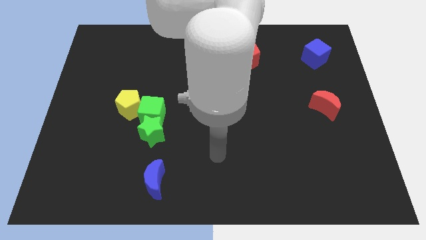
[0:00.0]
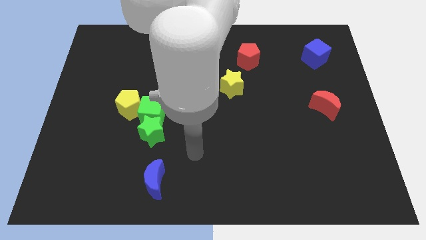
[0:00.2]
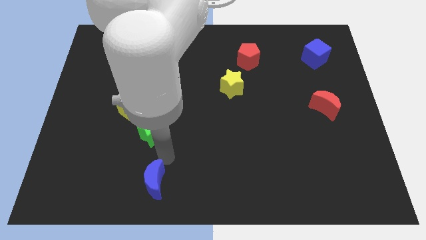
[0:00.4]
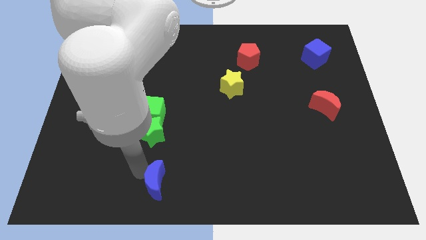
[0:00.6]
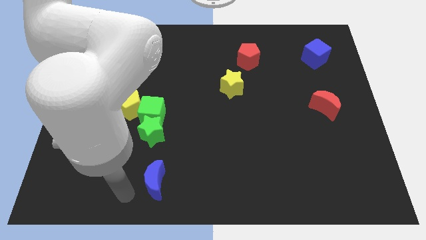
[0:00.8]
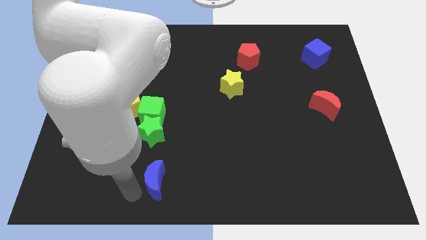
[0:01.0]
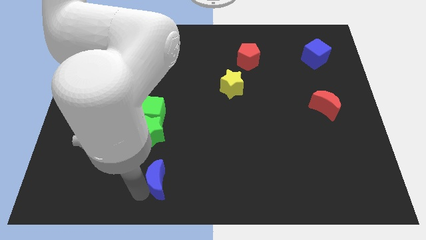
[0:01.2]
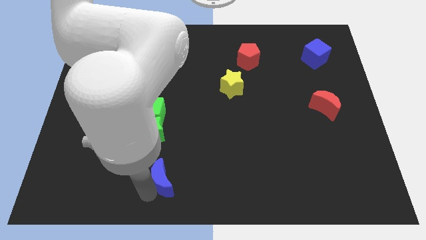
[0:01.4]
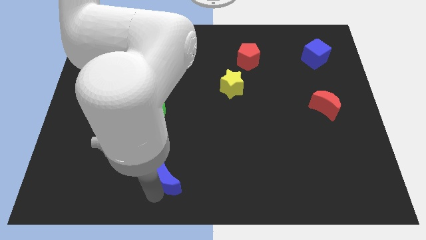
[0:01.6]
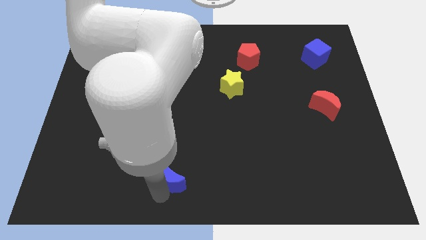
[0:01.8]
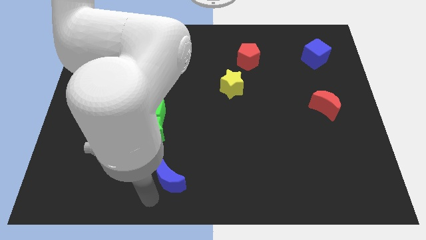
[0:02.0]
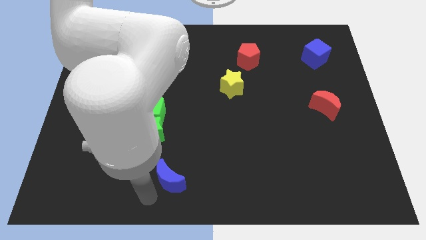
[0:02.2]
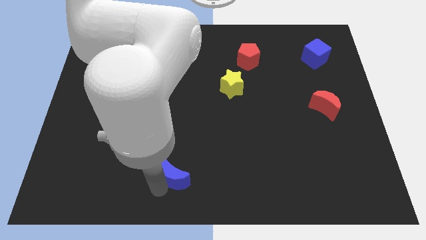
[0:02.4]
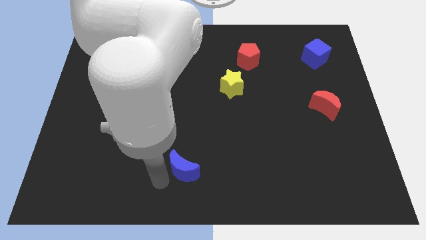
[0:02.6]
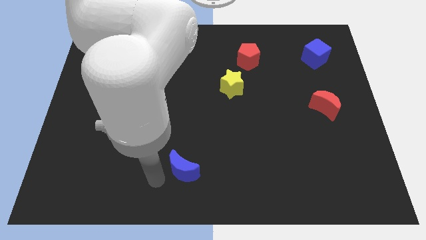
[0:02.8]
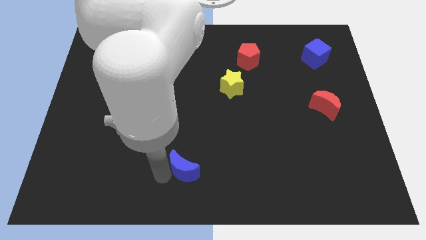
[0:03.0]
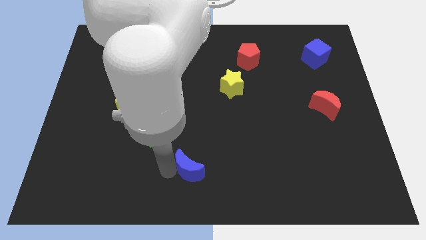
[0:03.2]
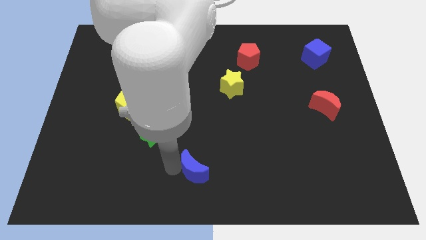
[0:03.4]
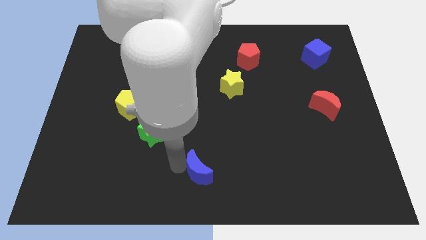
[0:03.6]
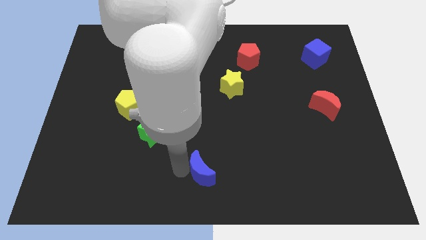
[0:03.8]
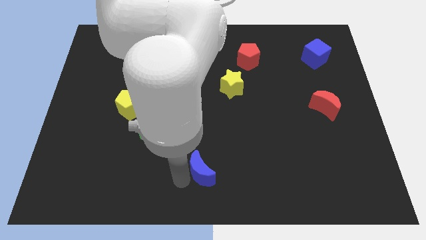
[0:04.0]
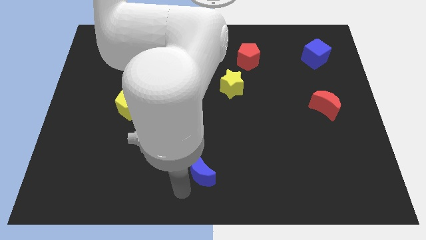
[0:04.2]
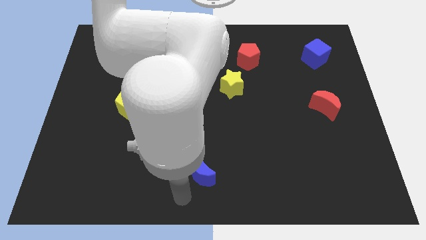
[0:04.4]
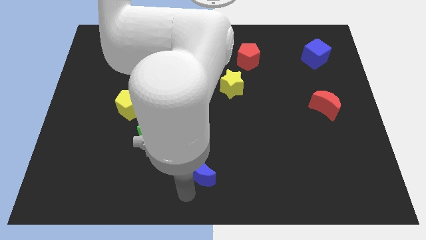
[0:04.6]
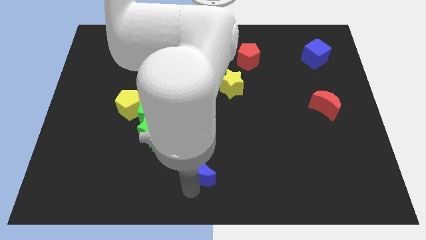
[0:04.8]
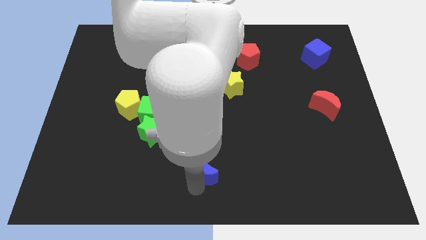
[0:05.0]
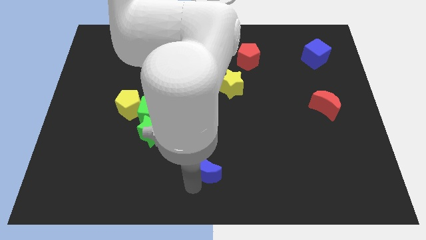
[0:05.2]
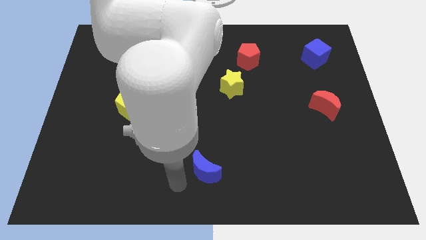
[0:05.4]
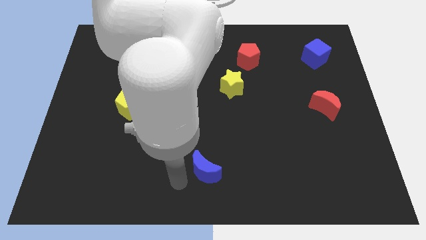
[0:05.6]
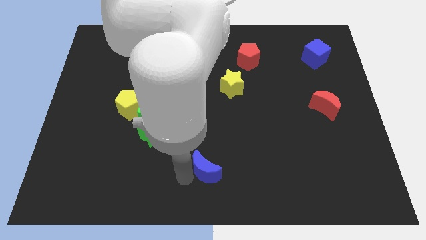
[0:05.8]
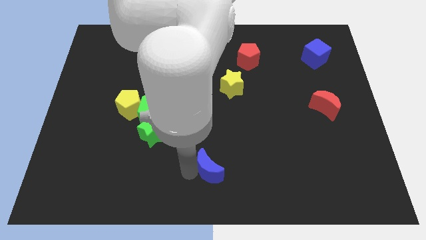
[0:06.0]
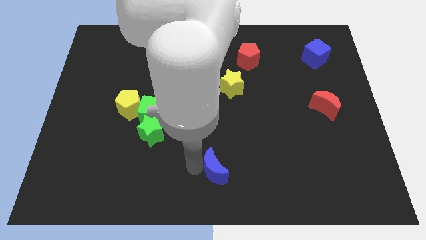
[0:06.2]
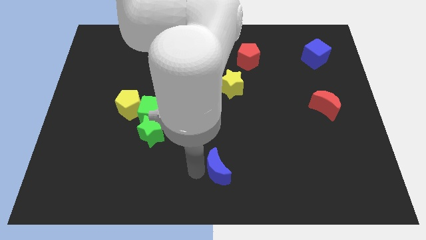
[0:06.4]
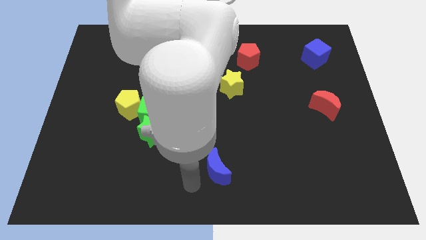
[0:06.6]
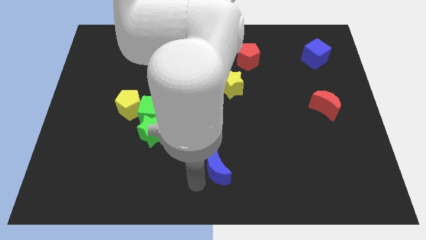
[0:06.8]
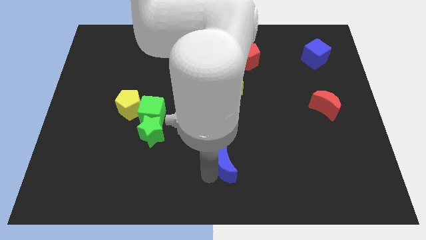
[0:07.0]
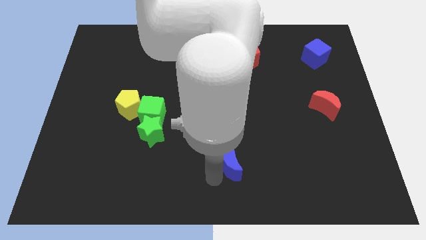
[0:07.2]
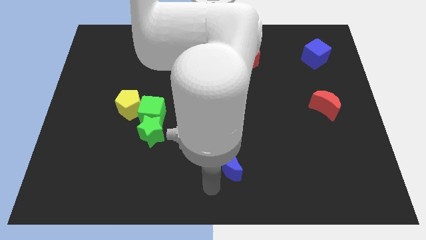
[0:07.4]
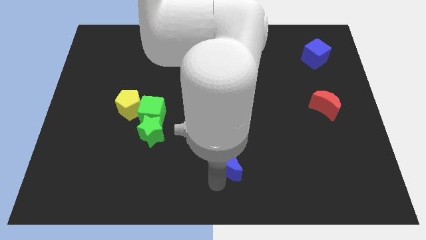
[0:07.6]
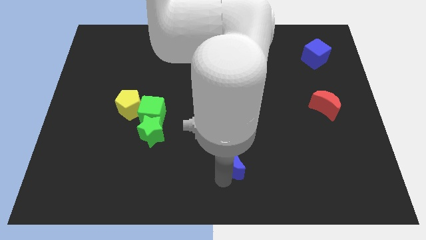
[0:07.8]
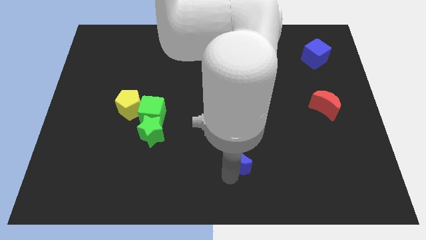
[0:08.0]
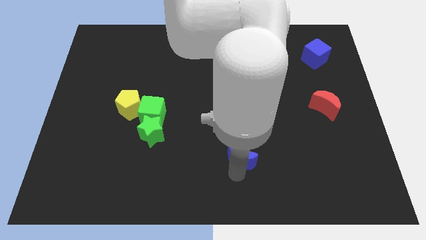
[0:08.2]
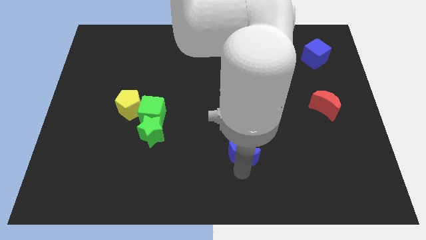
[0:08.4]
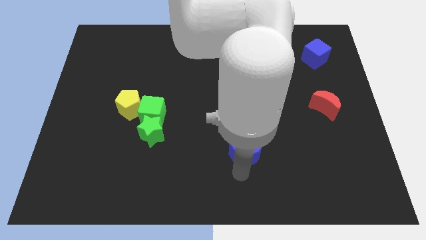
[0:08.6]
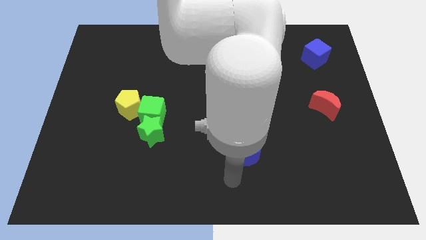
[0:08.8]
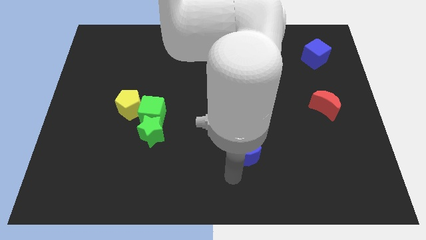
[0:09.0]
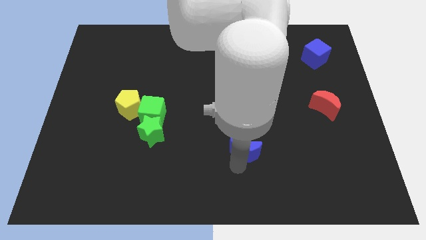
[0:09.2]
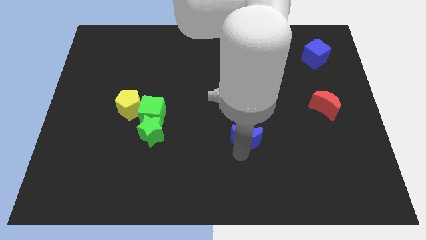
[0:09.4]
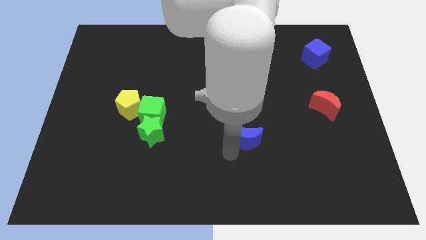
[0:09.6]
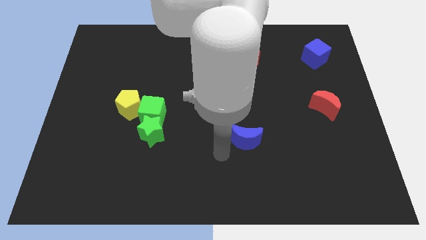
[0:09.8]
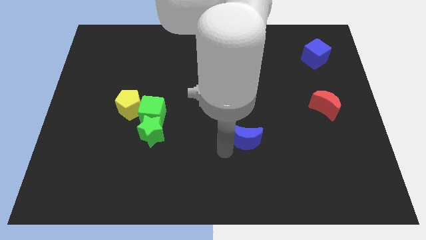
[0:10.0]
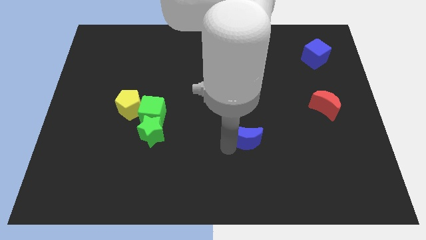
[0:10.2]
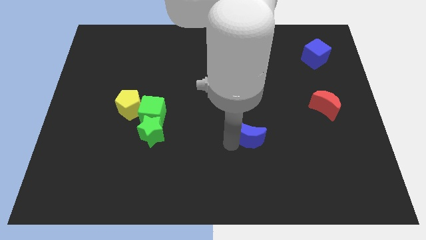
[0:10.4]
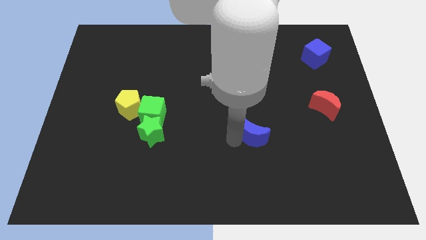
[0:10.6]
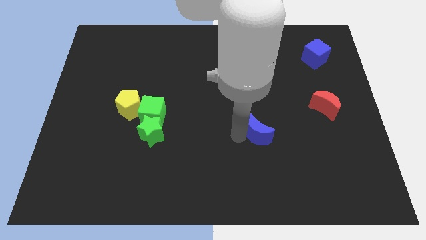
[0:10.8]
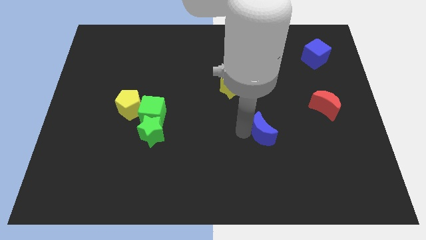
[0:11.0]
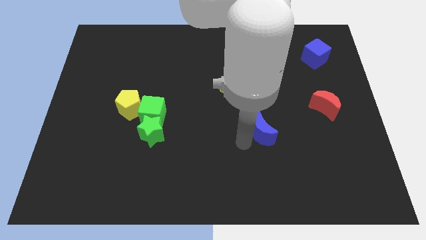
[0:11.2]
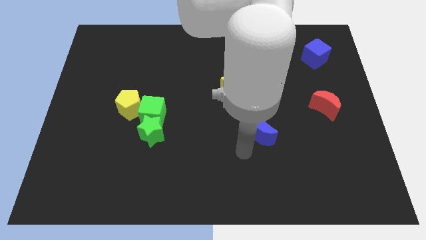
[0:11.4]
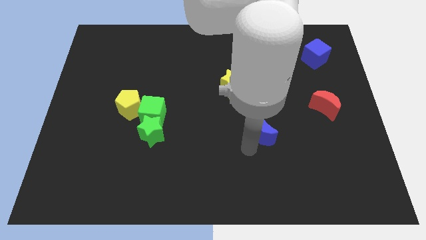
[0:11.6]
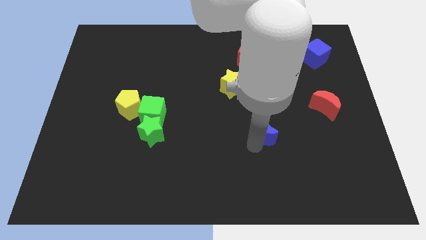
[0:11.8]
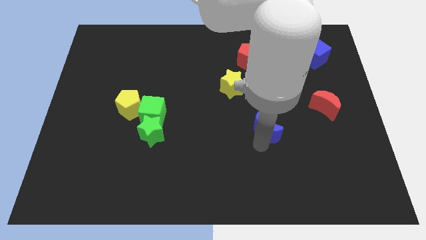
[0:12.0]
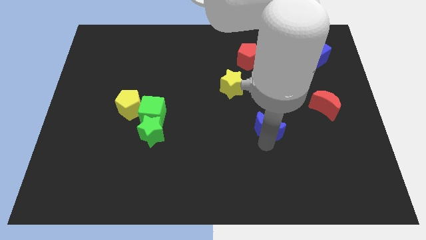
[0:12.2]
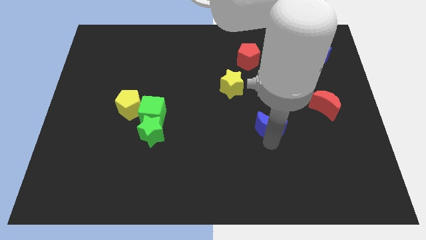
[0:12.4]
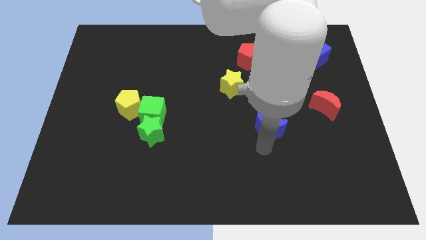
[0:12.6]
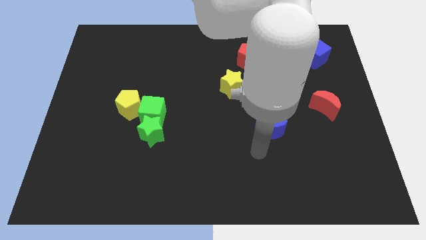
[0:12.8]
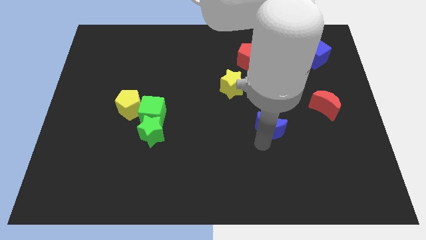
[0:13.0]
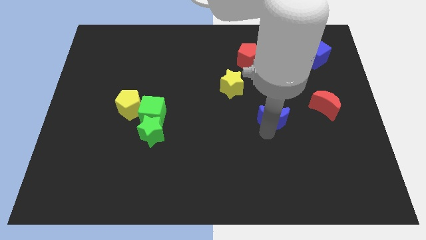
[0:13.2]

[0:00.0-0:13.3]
push the blue moon left of the red moon

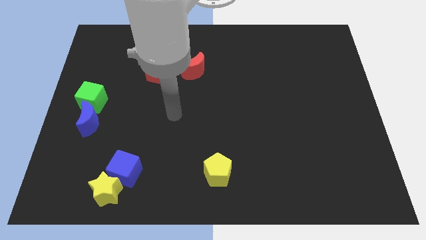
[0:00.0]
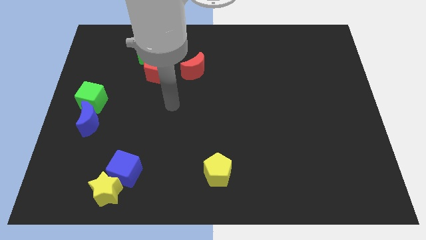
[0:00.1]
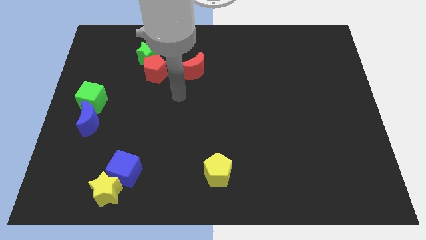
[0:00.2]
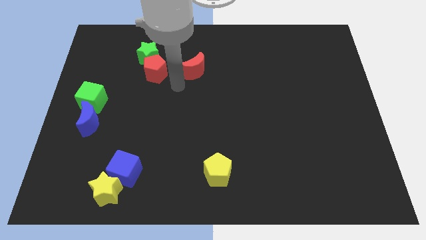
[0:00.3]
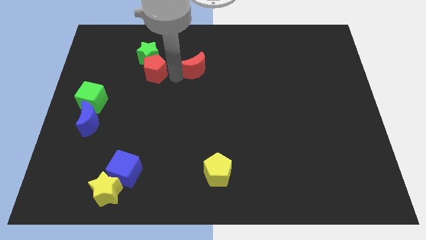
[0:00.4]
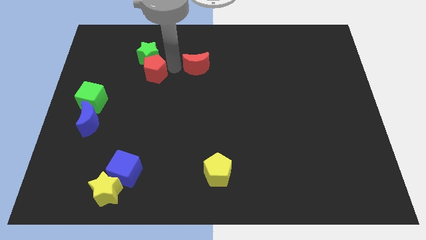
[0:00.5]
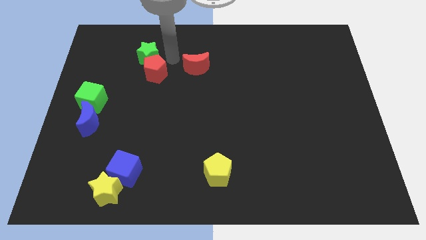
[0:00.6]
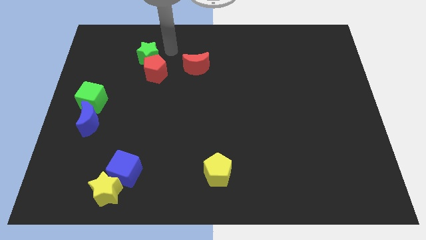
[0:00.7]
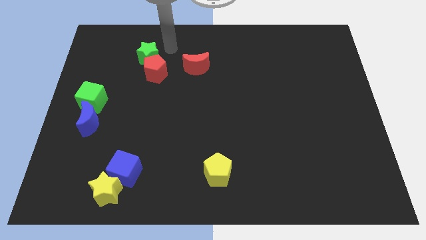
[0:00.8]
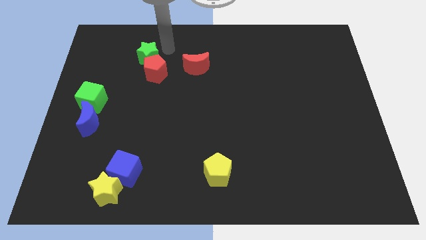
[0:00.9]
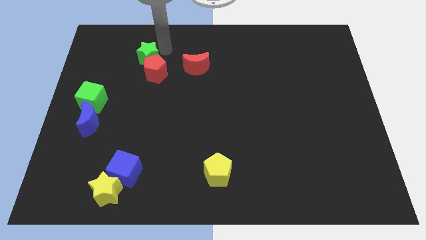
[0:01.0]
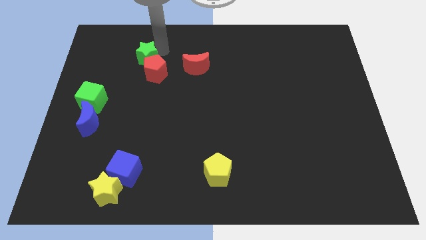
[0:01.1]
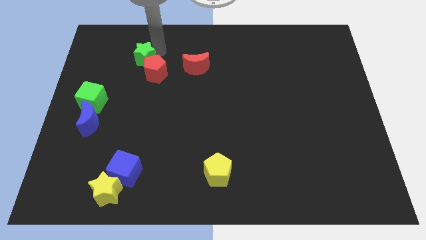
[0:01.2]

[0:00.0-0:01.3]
put the green star to the left of the red pentagon
